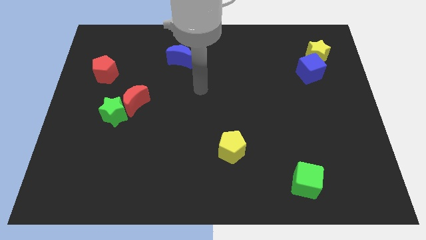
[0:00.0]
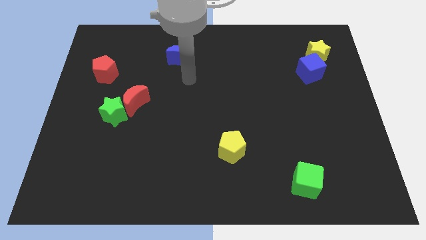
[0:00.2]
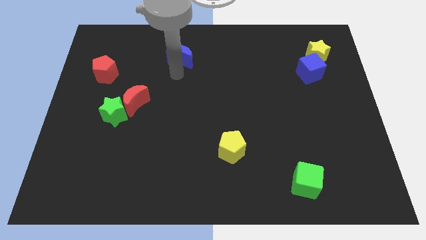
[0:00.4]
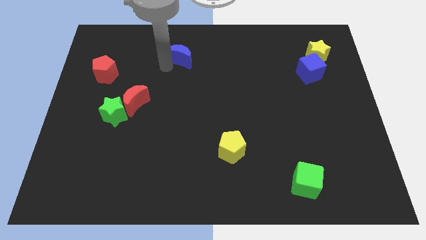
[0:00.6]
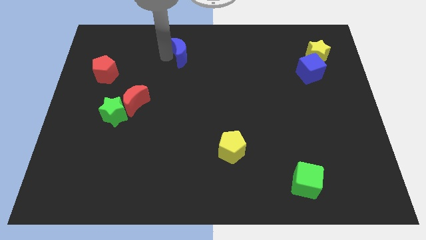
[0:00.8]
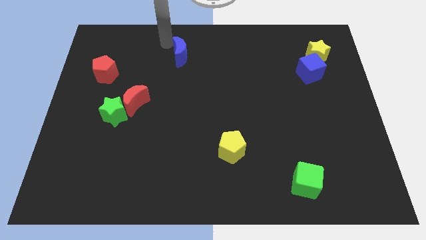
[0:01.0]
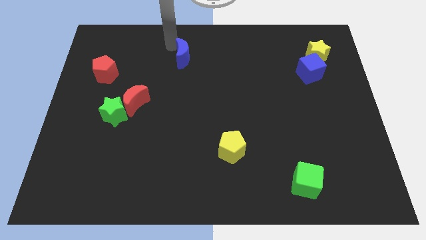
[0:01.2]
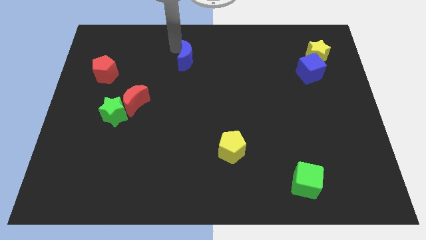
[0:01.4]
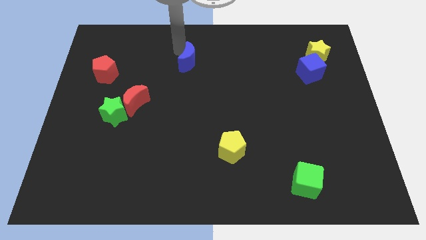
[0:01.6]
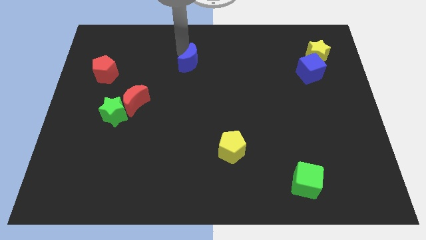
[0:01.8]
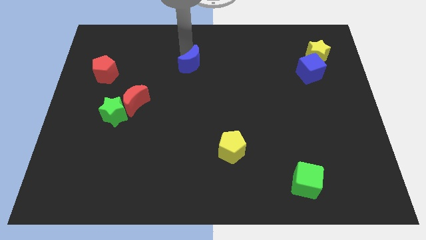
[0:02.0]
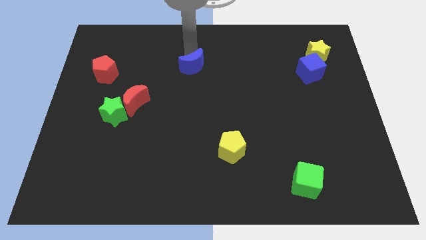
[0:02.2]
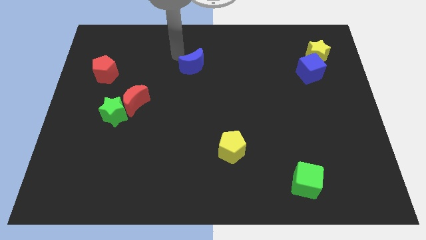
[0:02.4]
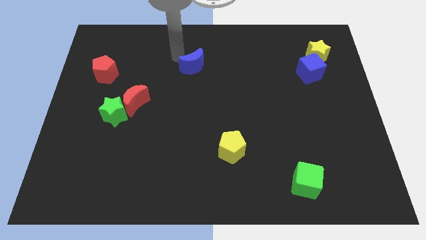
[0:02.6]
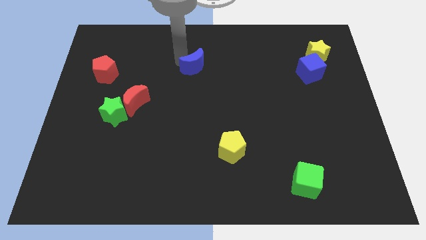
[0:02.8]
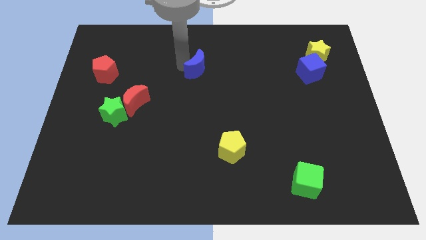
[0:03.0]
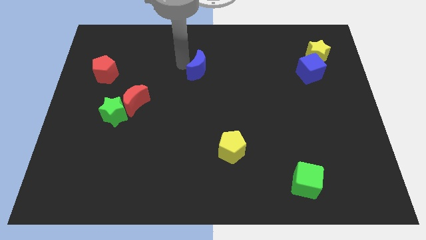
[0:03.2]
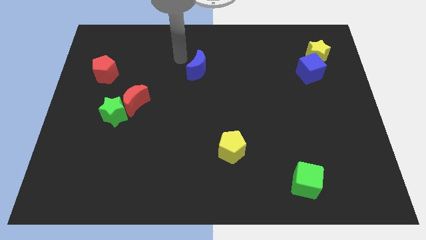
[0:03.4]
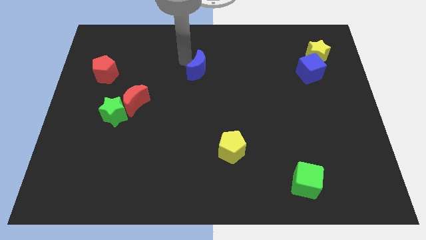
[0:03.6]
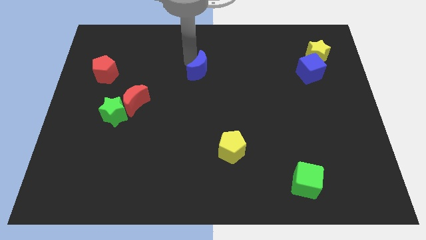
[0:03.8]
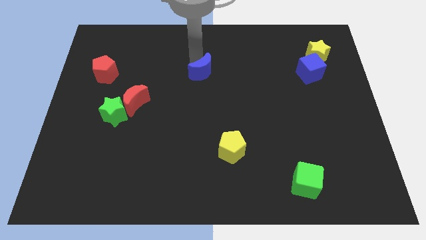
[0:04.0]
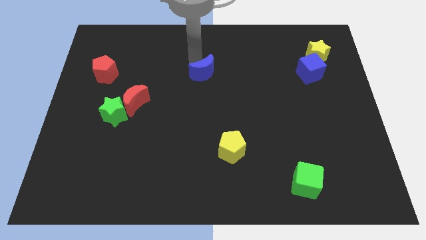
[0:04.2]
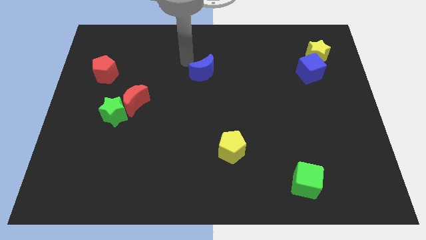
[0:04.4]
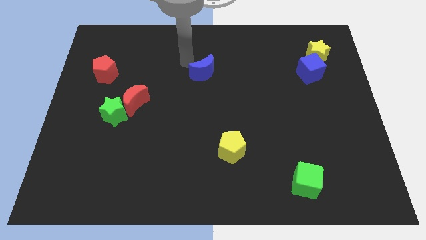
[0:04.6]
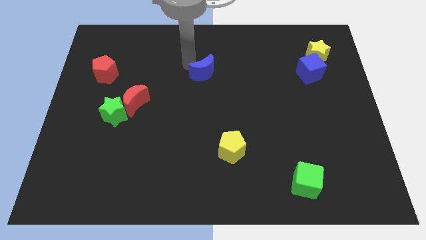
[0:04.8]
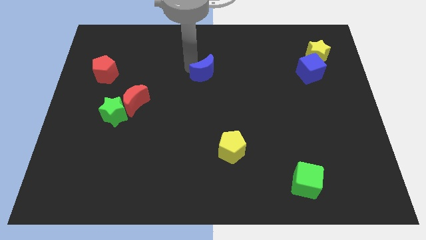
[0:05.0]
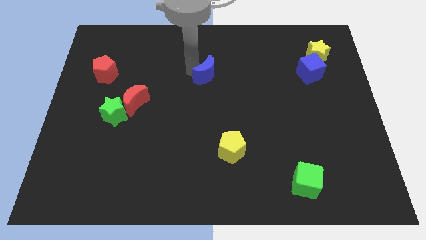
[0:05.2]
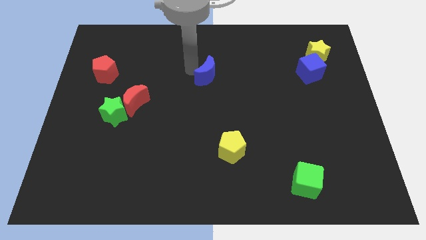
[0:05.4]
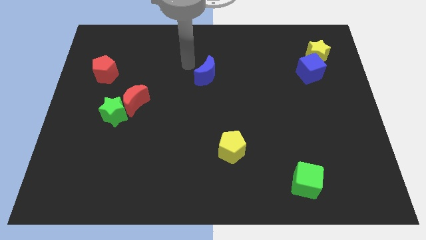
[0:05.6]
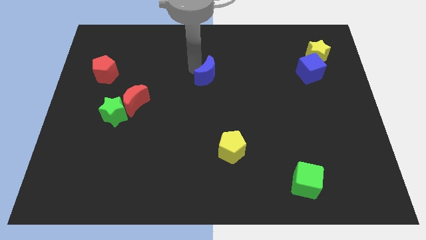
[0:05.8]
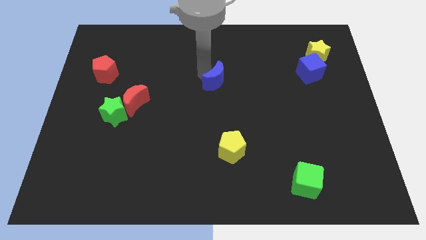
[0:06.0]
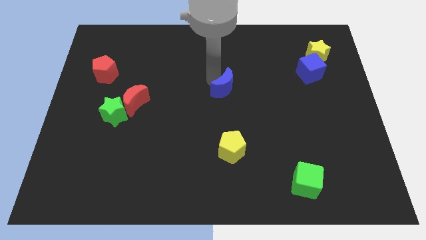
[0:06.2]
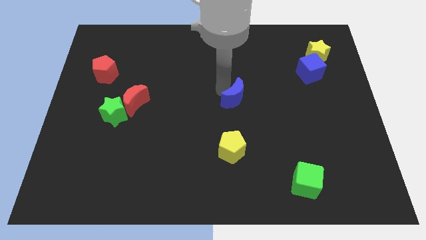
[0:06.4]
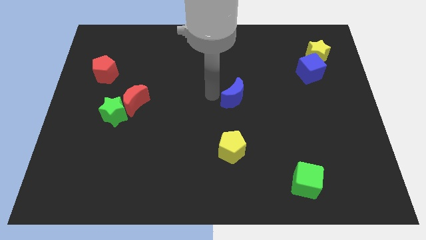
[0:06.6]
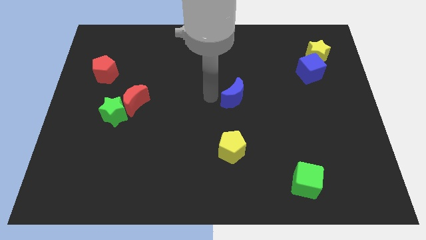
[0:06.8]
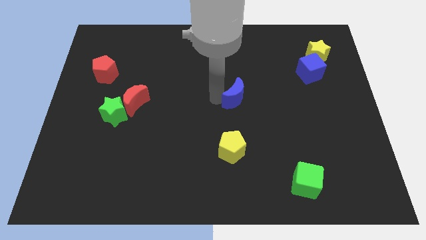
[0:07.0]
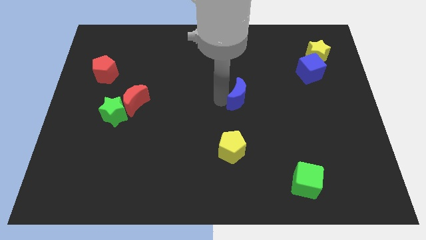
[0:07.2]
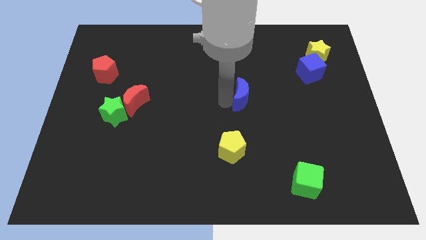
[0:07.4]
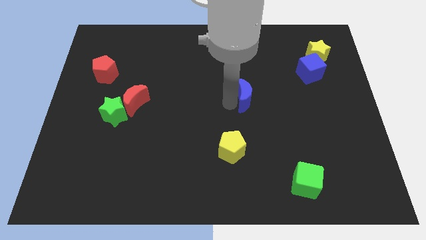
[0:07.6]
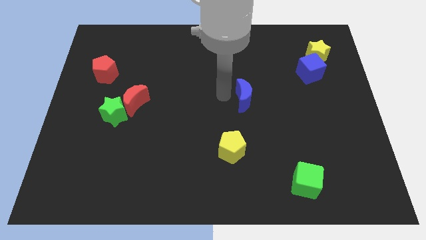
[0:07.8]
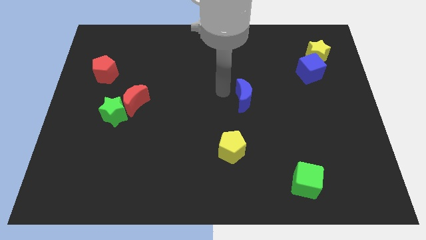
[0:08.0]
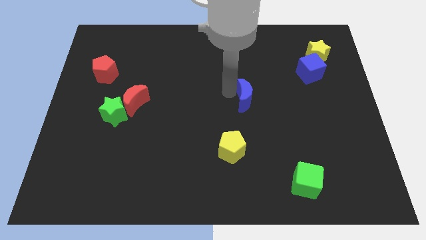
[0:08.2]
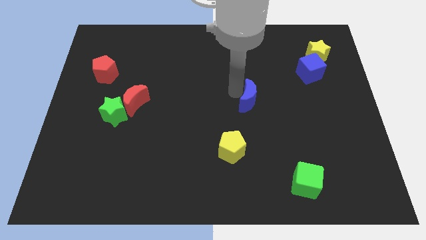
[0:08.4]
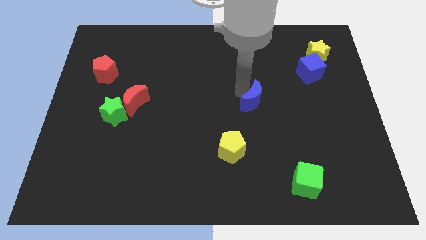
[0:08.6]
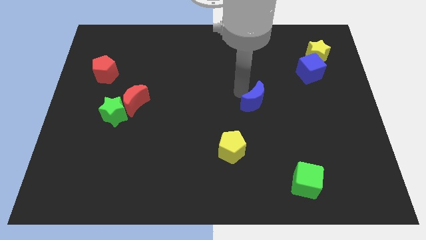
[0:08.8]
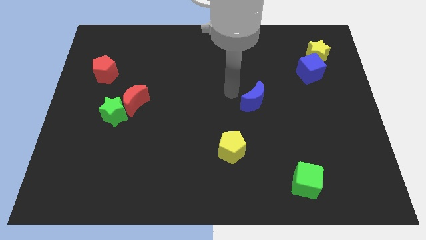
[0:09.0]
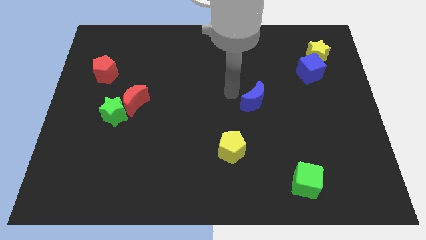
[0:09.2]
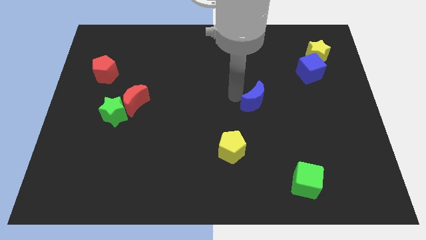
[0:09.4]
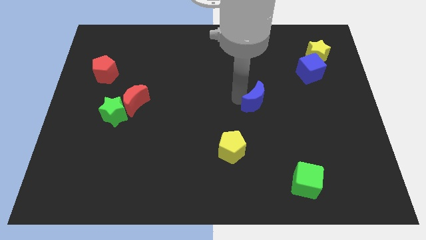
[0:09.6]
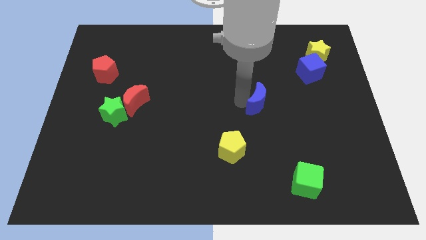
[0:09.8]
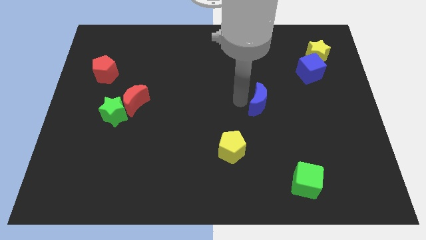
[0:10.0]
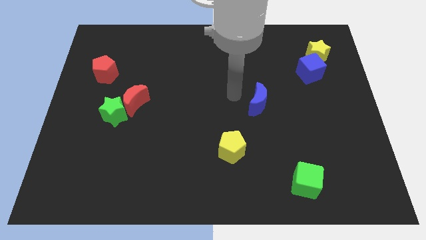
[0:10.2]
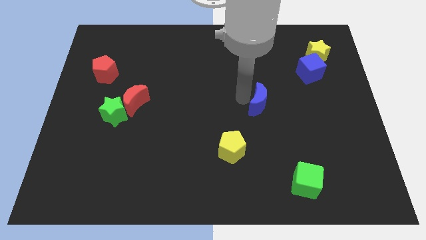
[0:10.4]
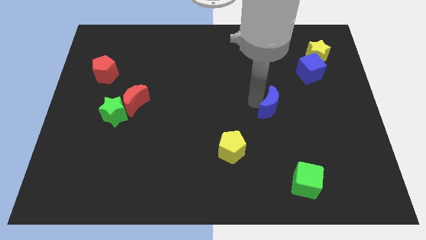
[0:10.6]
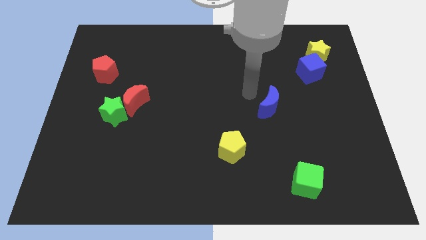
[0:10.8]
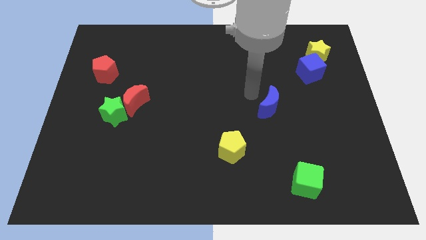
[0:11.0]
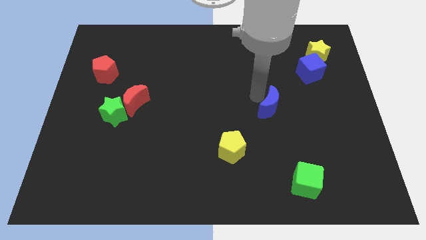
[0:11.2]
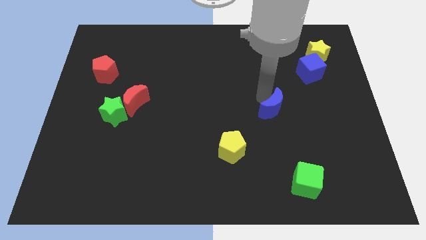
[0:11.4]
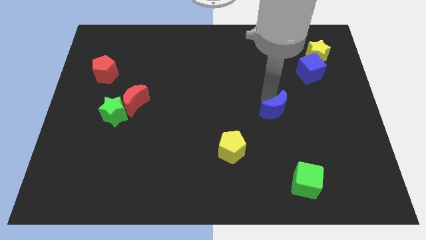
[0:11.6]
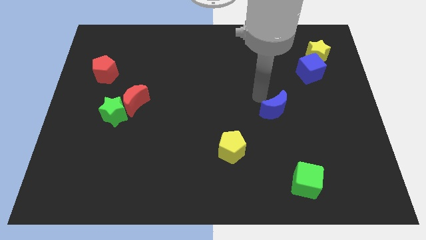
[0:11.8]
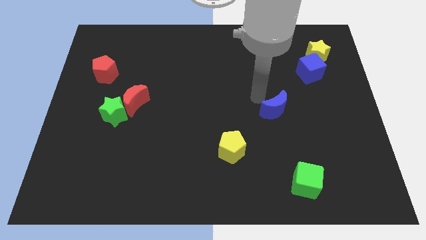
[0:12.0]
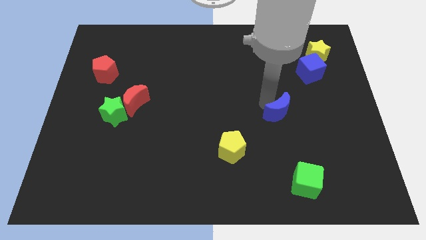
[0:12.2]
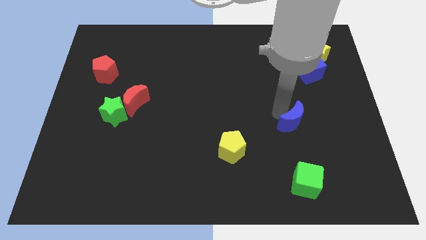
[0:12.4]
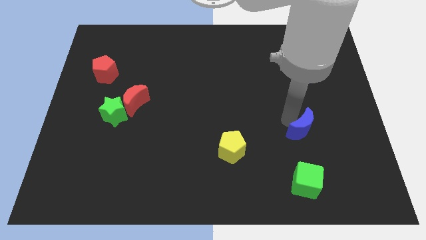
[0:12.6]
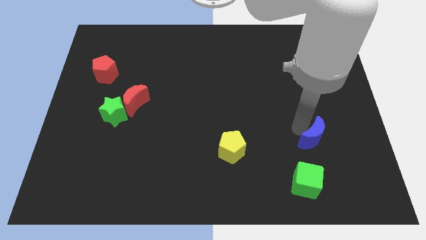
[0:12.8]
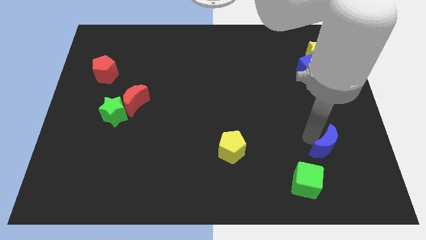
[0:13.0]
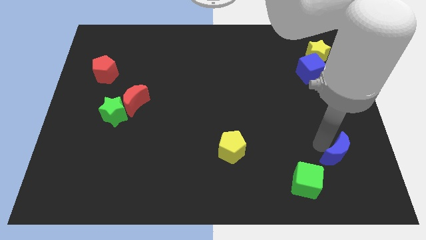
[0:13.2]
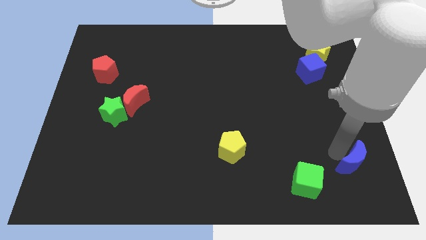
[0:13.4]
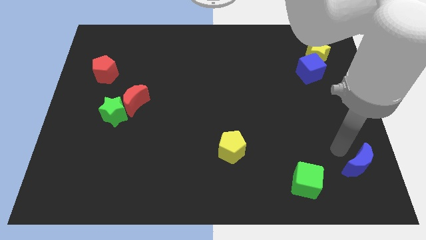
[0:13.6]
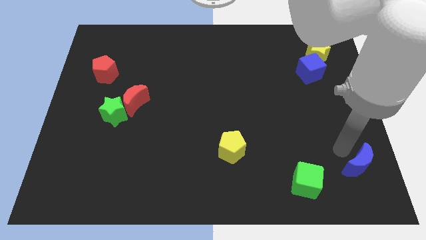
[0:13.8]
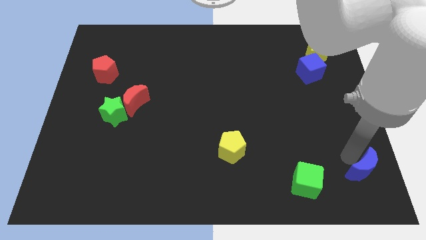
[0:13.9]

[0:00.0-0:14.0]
push the blue moon to the bottom right

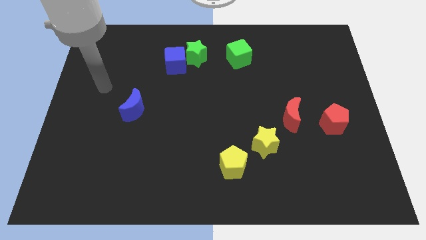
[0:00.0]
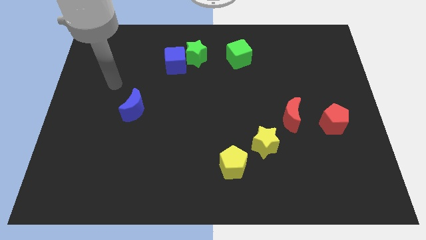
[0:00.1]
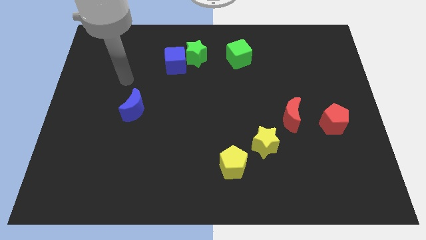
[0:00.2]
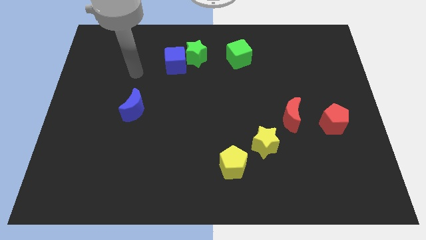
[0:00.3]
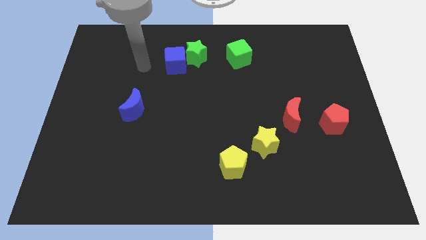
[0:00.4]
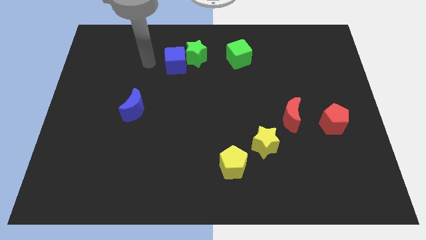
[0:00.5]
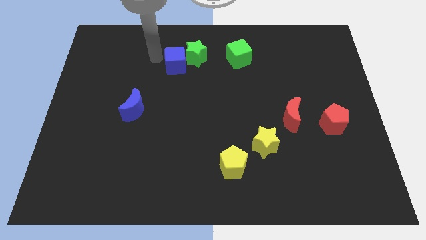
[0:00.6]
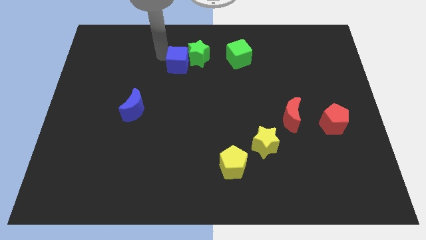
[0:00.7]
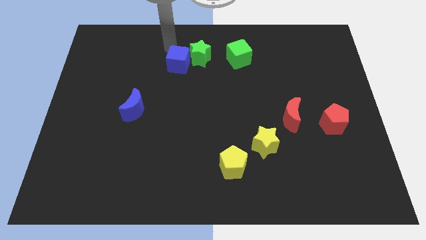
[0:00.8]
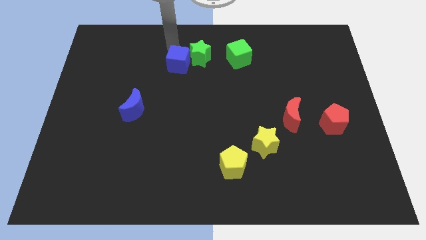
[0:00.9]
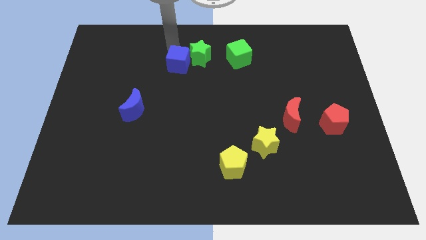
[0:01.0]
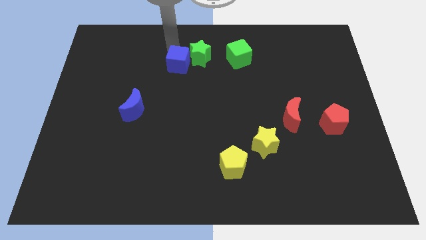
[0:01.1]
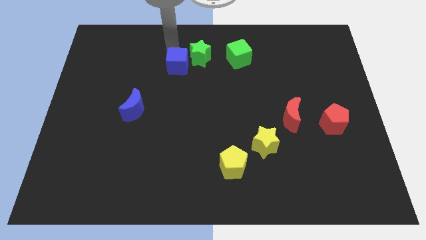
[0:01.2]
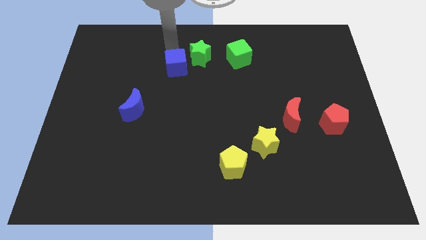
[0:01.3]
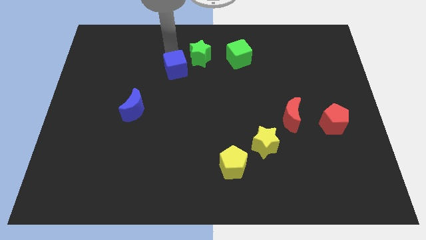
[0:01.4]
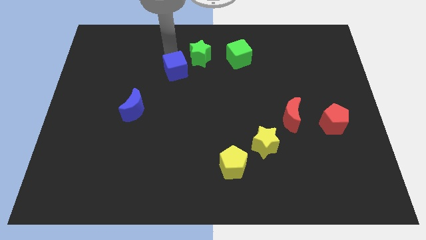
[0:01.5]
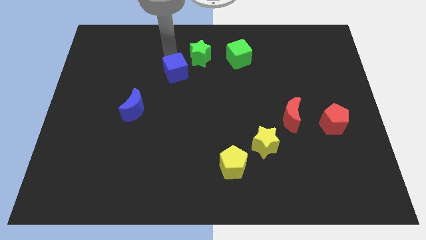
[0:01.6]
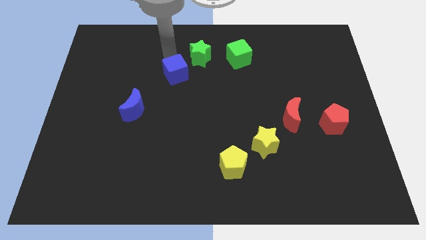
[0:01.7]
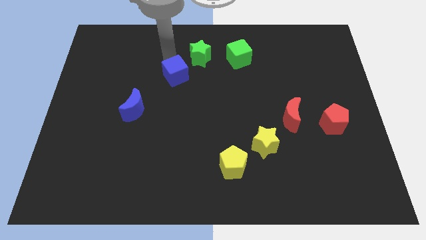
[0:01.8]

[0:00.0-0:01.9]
put the blue cube to the middle of the board
